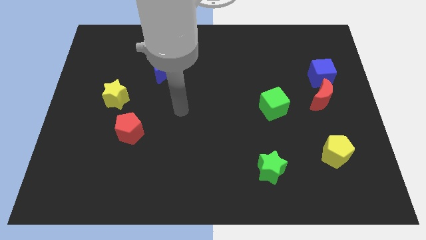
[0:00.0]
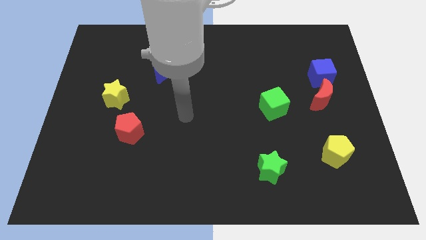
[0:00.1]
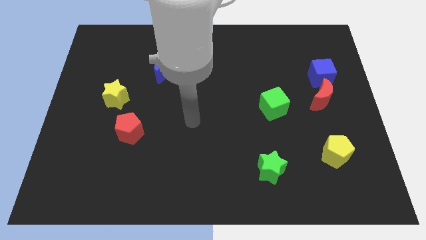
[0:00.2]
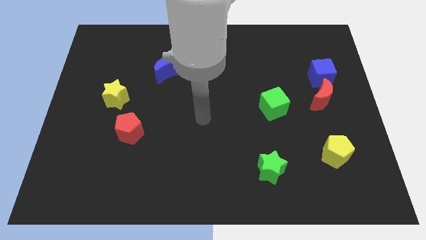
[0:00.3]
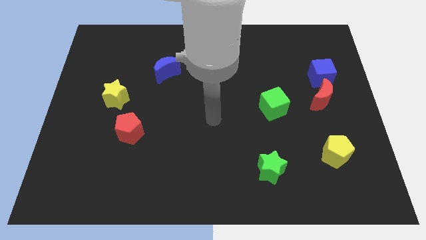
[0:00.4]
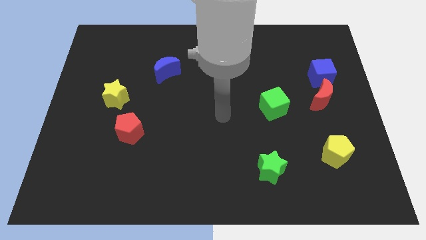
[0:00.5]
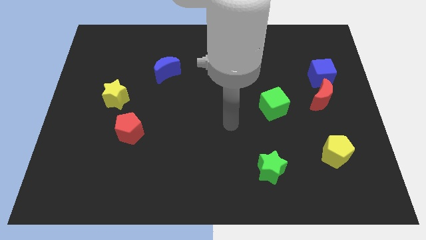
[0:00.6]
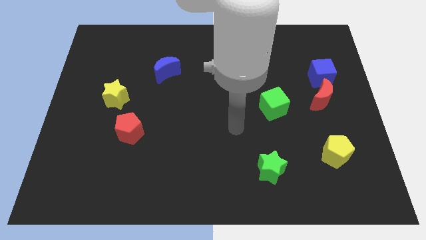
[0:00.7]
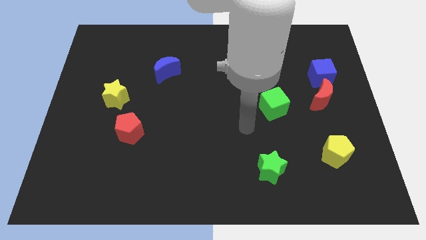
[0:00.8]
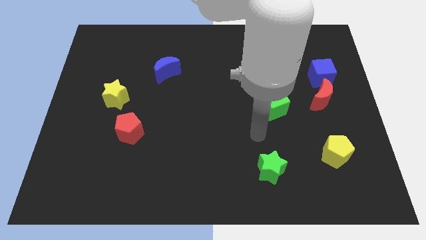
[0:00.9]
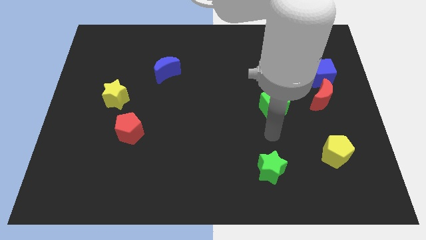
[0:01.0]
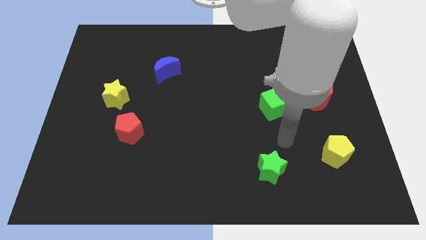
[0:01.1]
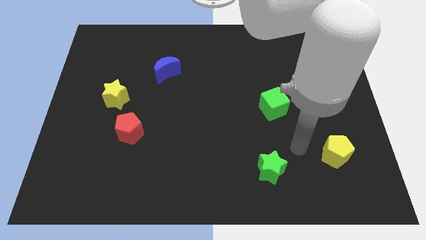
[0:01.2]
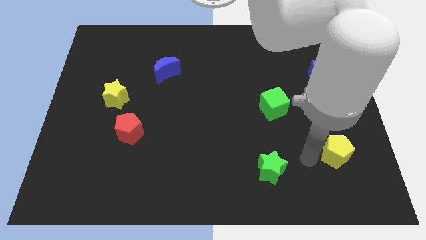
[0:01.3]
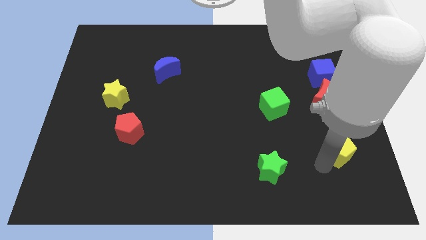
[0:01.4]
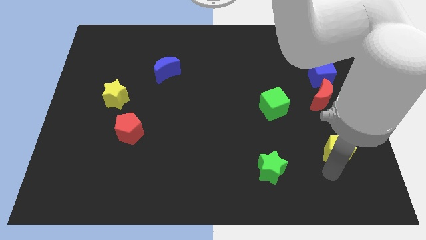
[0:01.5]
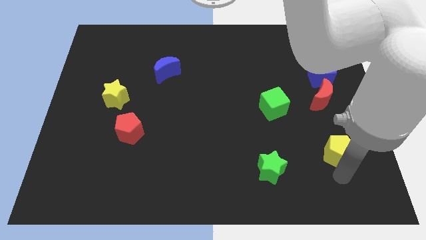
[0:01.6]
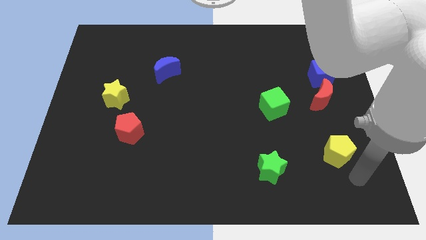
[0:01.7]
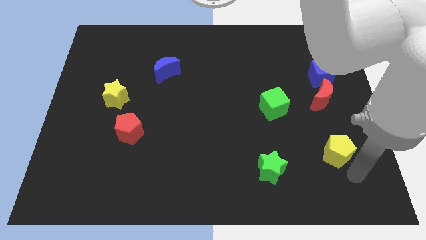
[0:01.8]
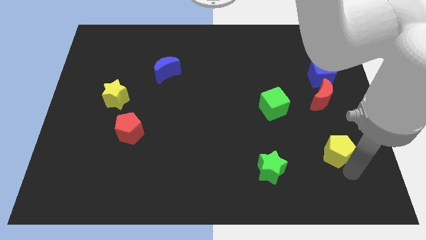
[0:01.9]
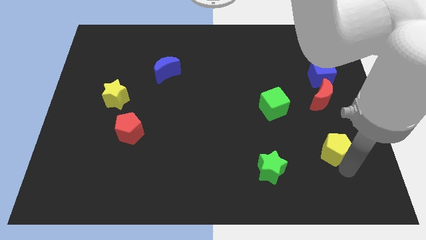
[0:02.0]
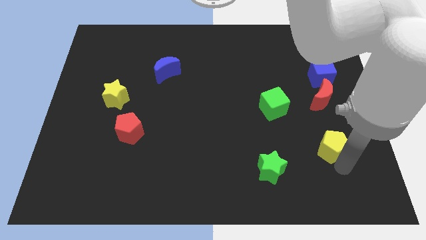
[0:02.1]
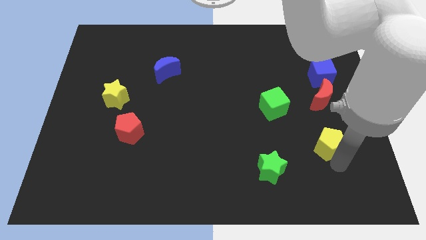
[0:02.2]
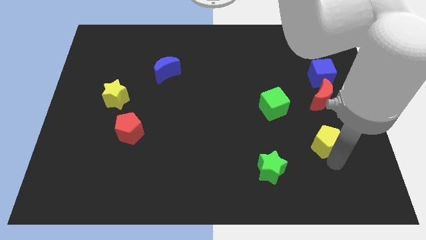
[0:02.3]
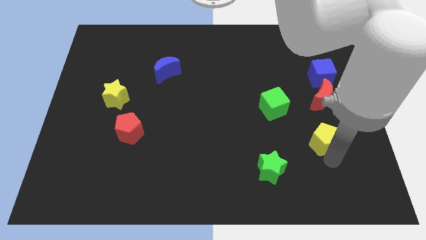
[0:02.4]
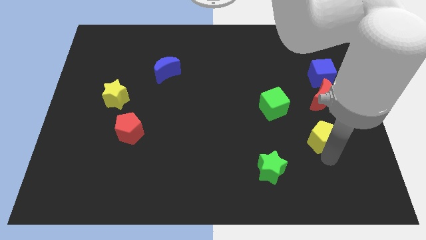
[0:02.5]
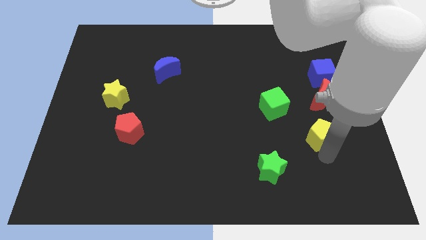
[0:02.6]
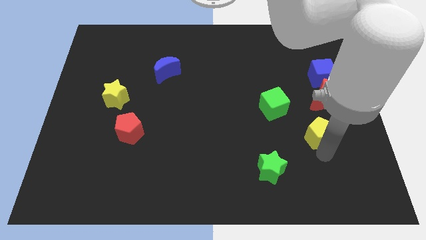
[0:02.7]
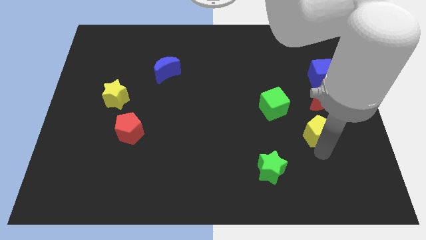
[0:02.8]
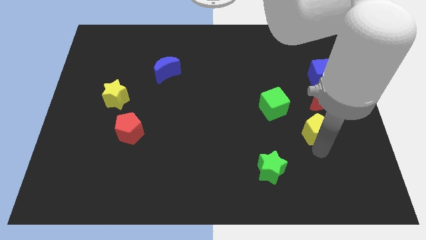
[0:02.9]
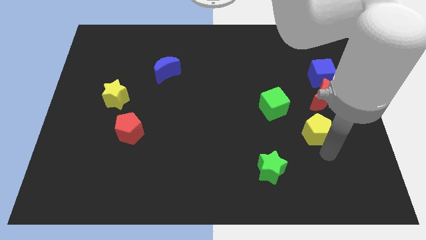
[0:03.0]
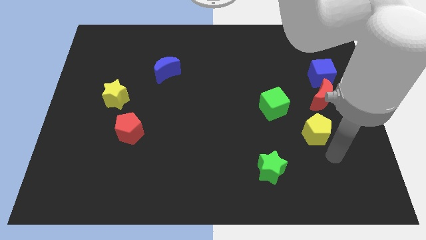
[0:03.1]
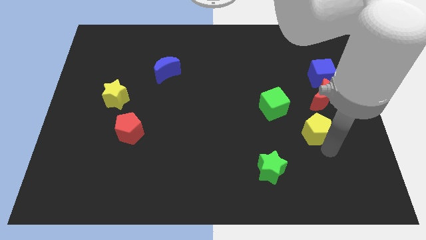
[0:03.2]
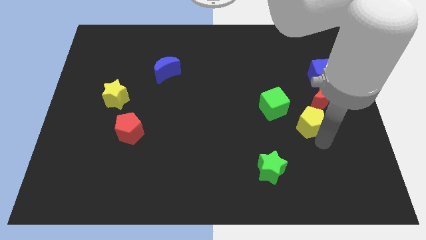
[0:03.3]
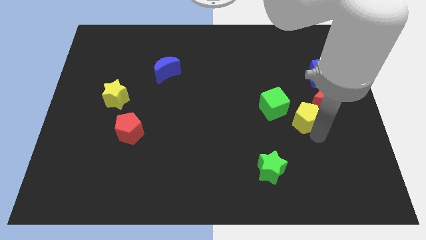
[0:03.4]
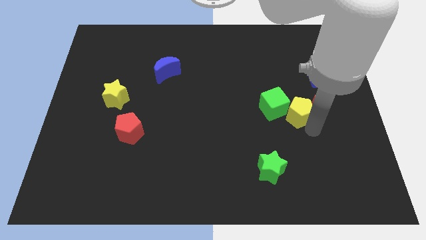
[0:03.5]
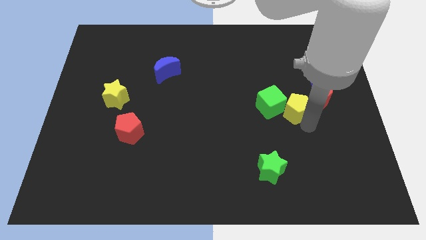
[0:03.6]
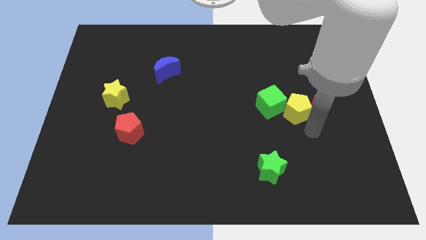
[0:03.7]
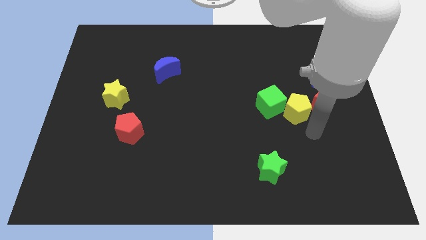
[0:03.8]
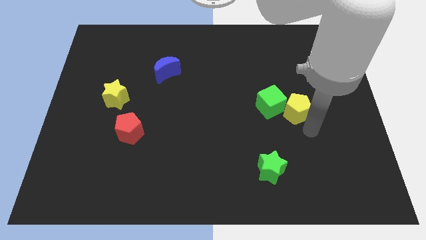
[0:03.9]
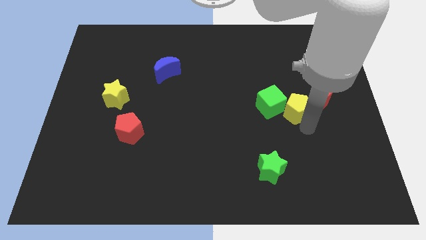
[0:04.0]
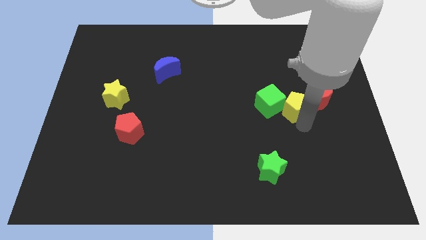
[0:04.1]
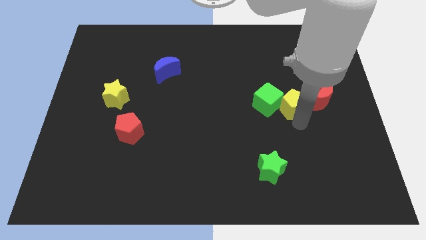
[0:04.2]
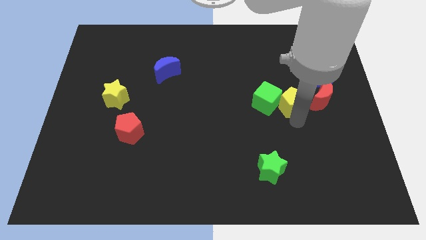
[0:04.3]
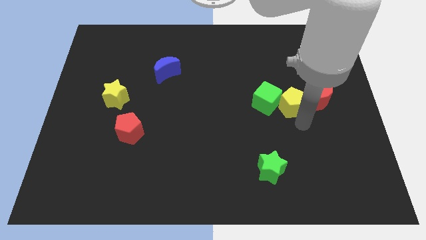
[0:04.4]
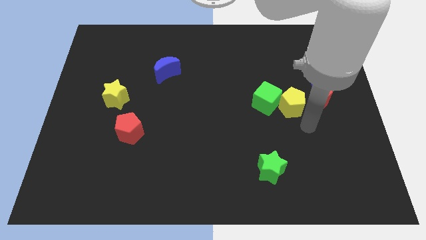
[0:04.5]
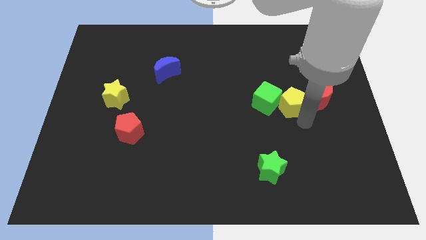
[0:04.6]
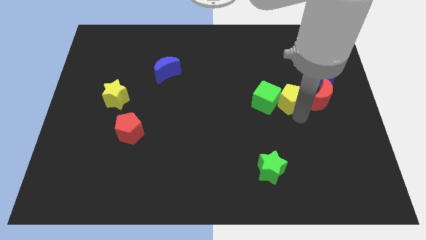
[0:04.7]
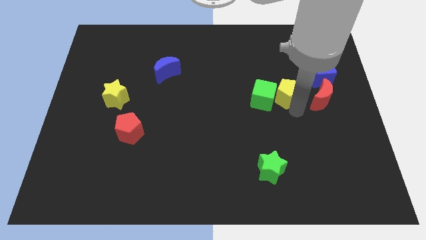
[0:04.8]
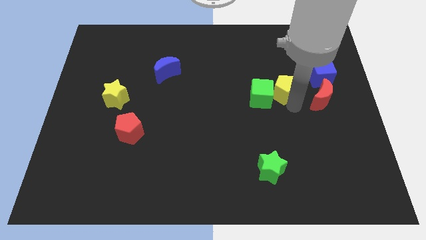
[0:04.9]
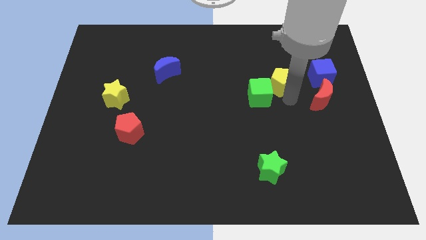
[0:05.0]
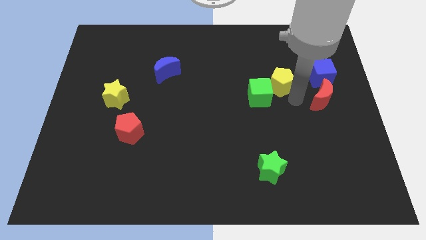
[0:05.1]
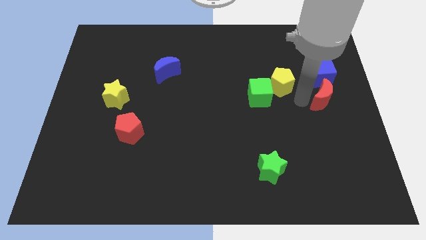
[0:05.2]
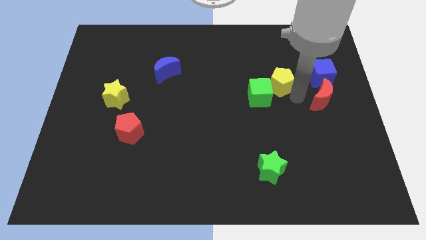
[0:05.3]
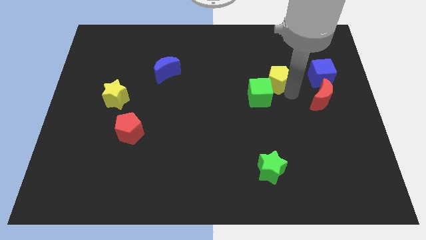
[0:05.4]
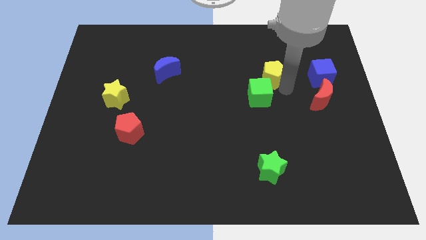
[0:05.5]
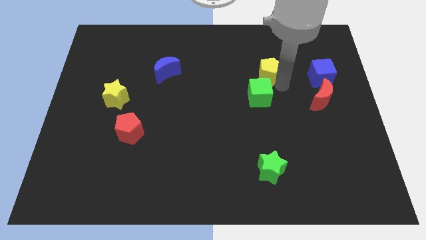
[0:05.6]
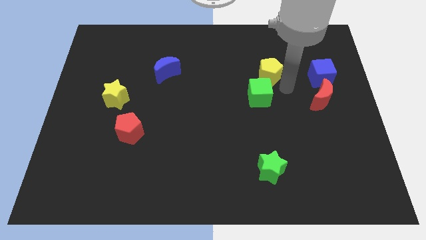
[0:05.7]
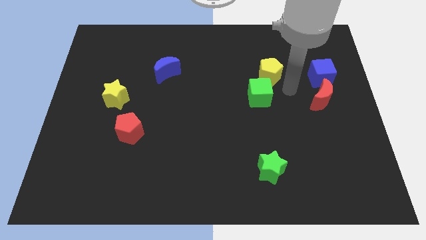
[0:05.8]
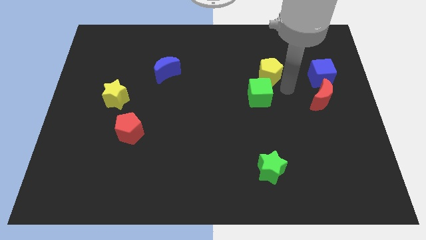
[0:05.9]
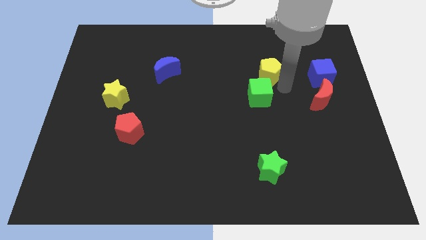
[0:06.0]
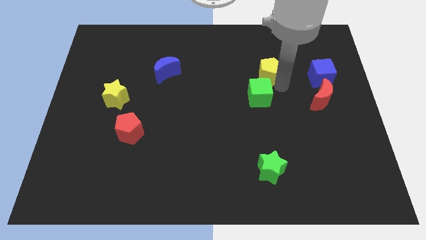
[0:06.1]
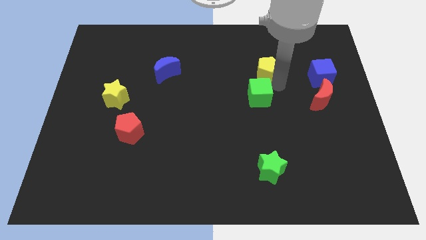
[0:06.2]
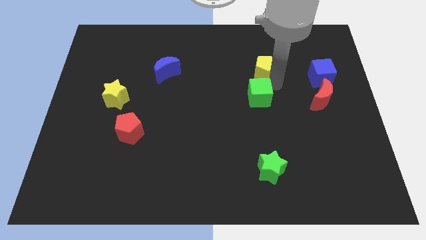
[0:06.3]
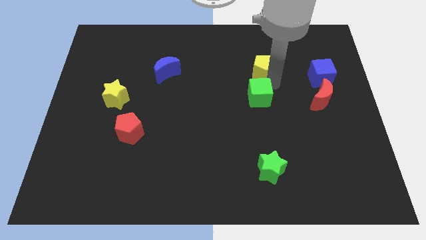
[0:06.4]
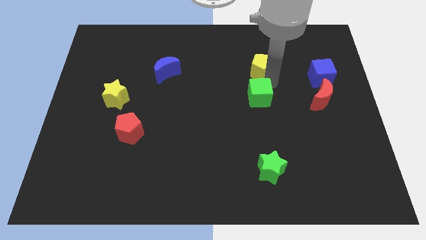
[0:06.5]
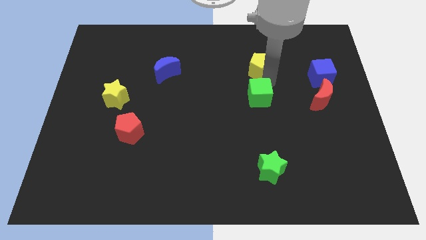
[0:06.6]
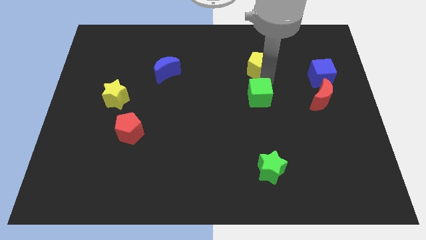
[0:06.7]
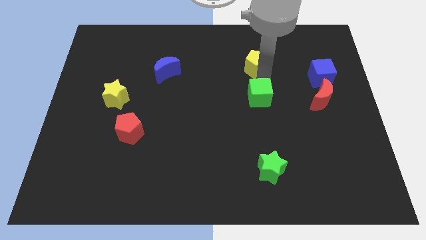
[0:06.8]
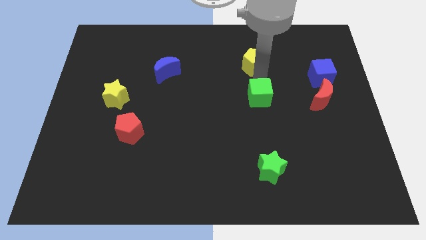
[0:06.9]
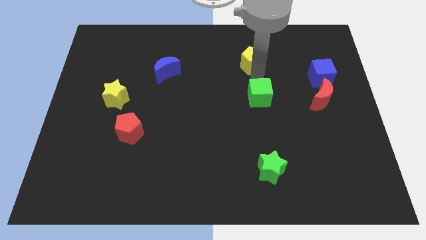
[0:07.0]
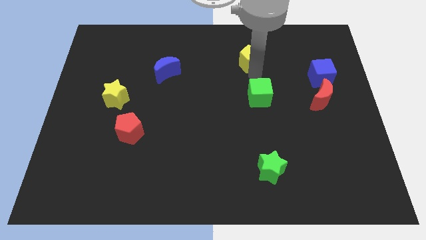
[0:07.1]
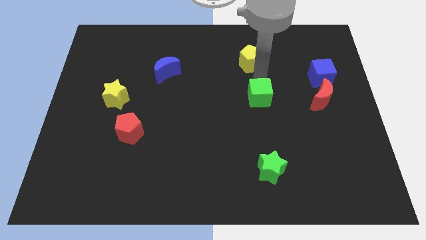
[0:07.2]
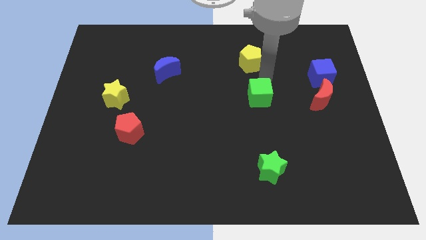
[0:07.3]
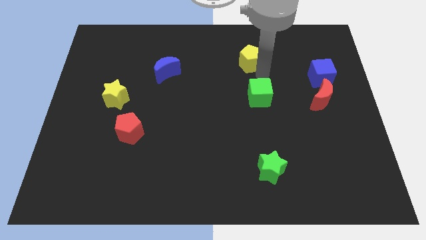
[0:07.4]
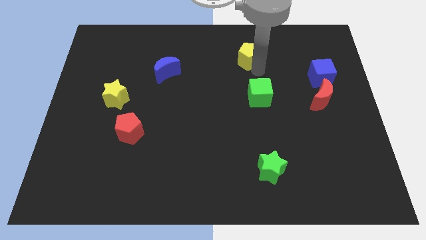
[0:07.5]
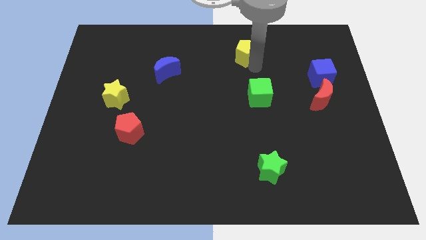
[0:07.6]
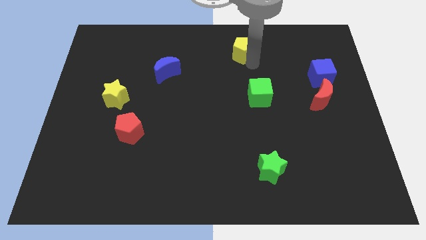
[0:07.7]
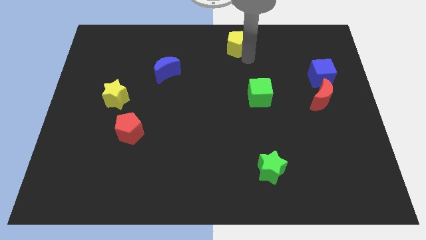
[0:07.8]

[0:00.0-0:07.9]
move the yellow pentagon to the top
